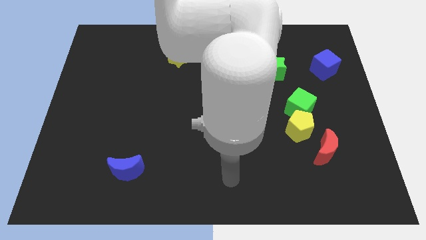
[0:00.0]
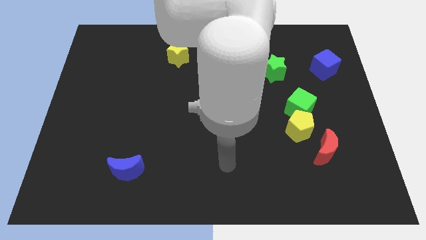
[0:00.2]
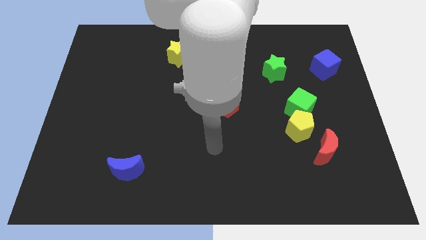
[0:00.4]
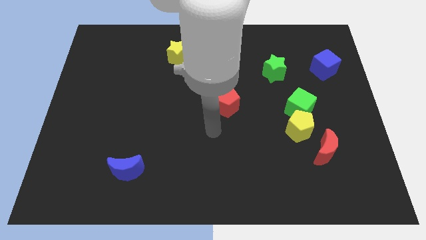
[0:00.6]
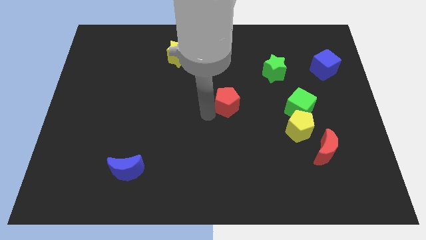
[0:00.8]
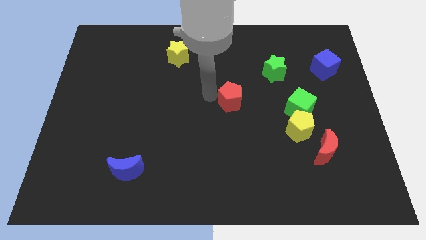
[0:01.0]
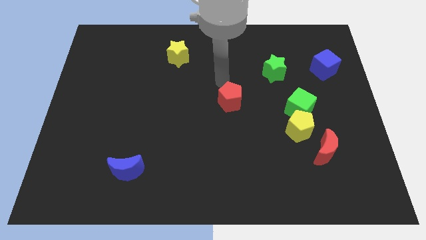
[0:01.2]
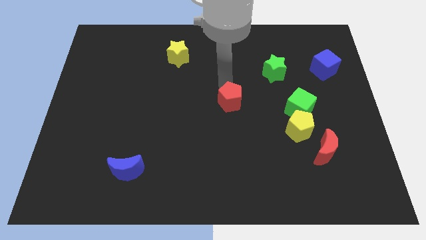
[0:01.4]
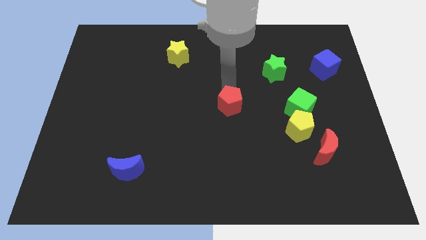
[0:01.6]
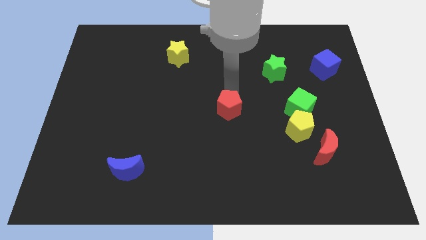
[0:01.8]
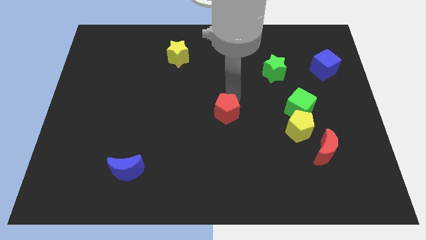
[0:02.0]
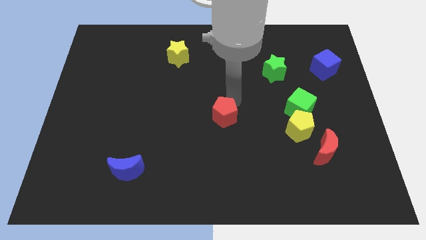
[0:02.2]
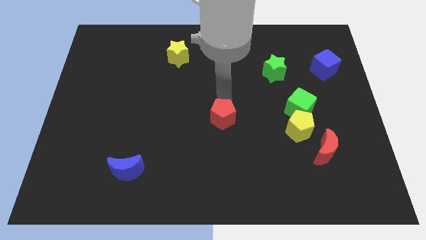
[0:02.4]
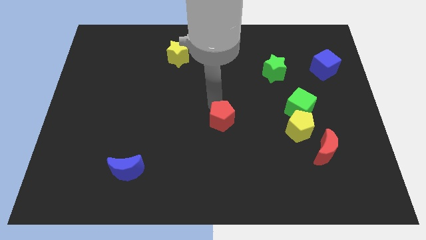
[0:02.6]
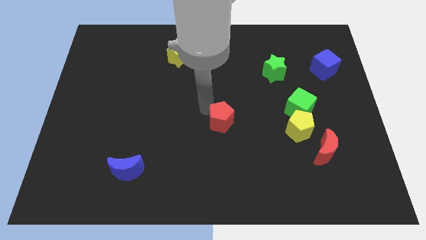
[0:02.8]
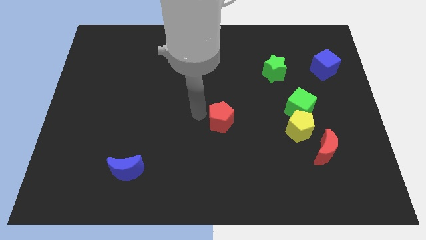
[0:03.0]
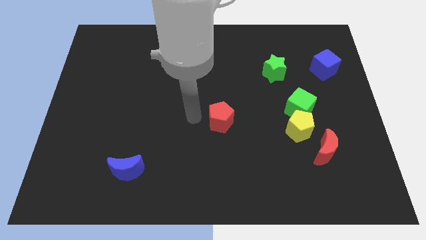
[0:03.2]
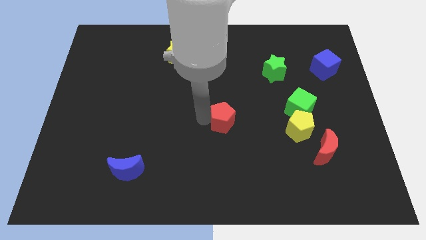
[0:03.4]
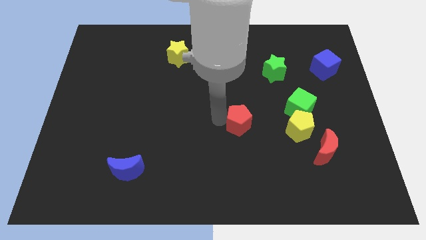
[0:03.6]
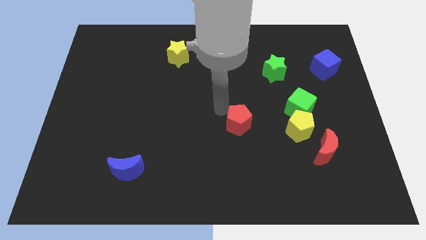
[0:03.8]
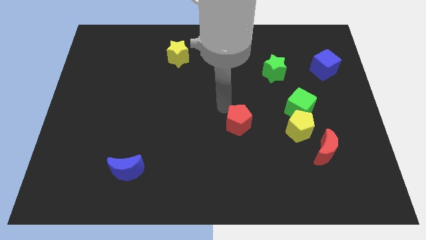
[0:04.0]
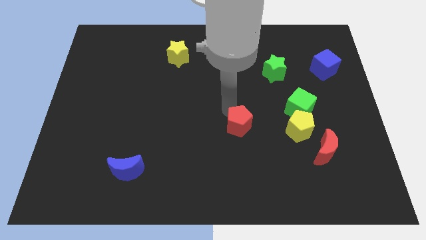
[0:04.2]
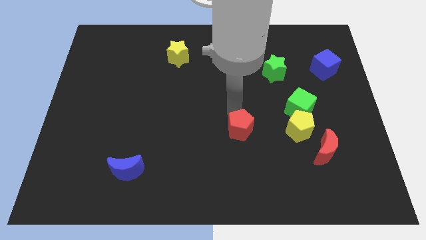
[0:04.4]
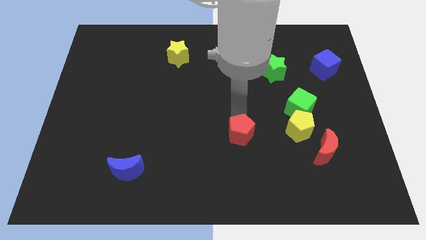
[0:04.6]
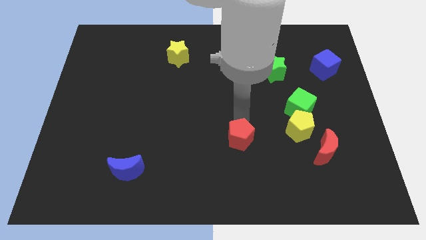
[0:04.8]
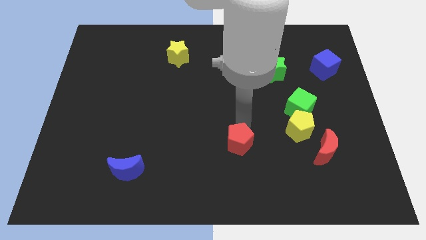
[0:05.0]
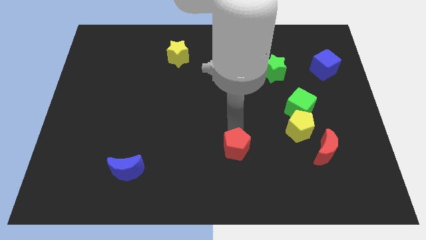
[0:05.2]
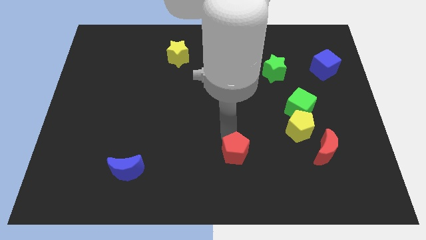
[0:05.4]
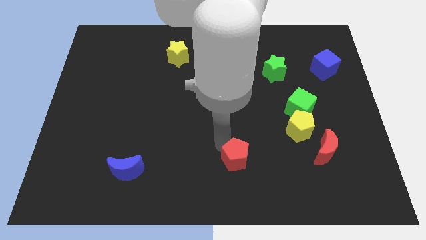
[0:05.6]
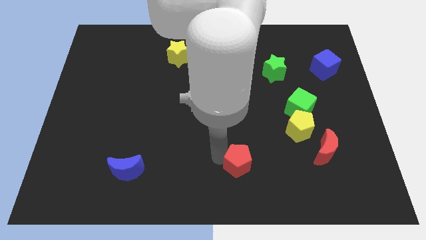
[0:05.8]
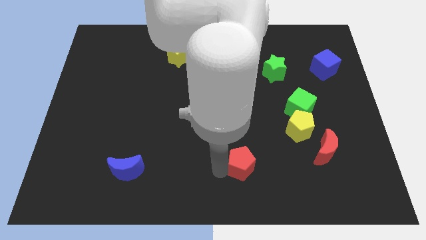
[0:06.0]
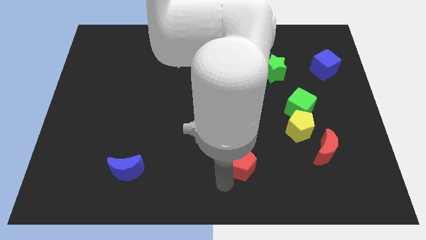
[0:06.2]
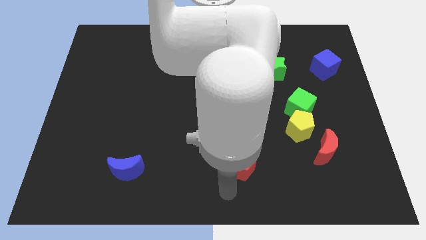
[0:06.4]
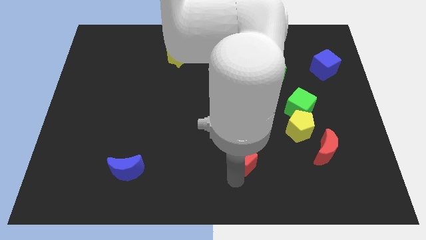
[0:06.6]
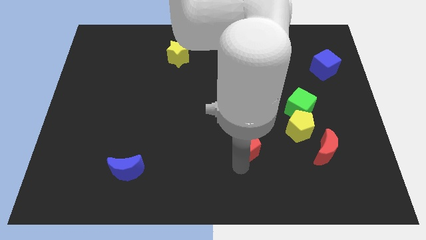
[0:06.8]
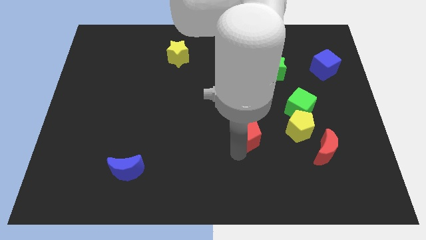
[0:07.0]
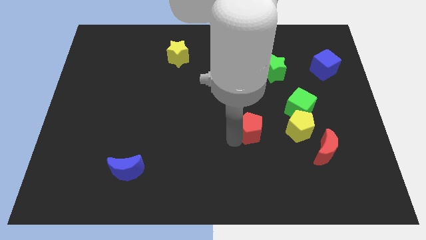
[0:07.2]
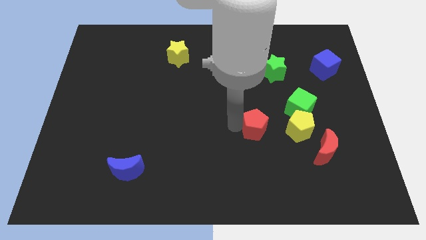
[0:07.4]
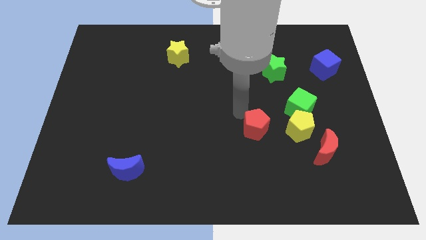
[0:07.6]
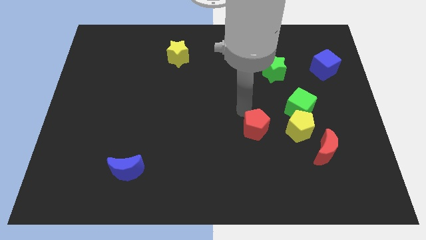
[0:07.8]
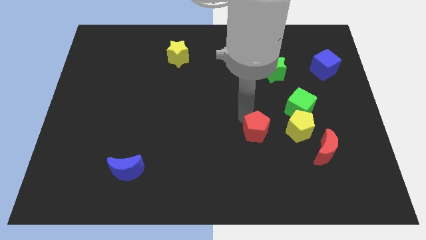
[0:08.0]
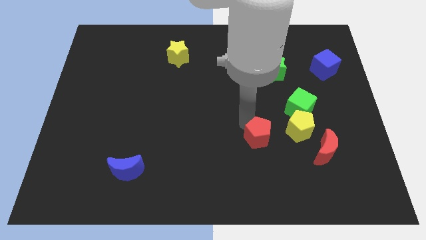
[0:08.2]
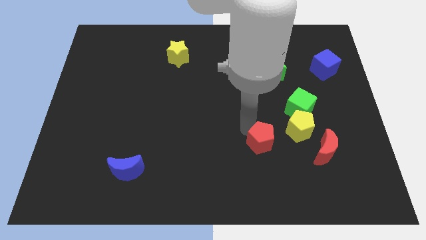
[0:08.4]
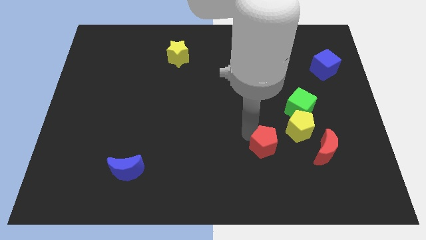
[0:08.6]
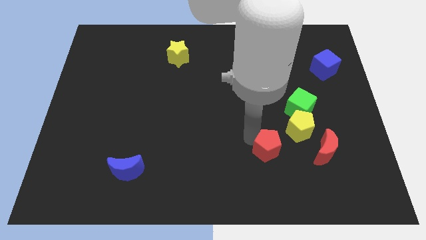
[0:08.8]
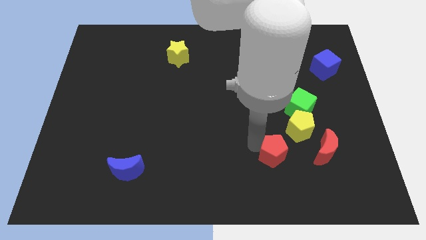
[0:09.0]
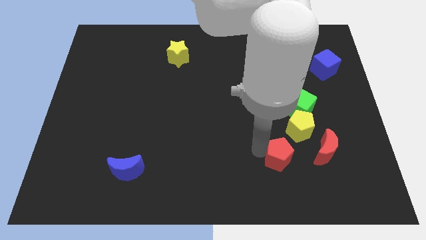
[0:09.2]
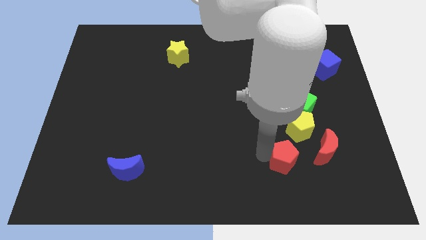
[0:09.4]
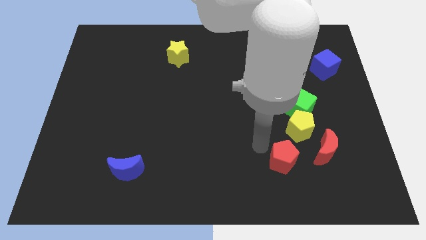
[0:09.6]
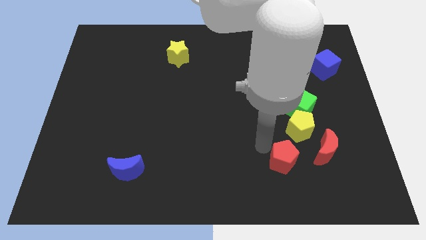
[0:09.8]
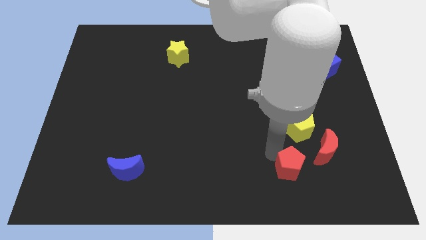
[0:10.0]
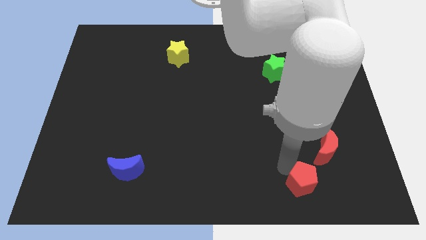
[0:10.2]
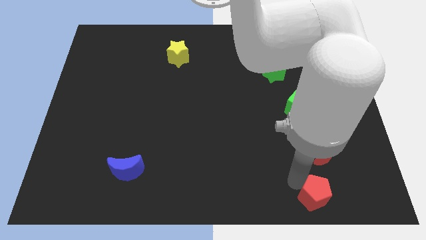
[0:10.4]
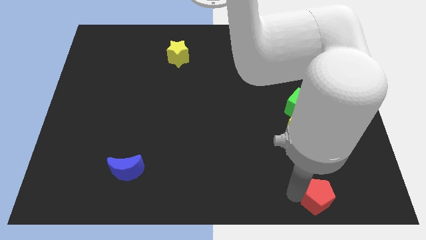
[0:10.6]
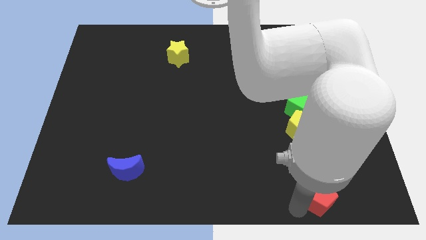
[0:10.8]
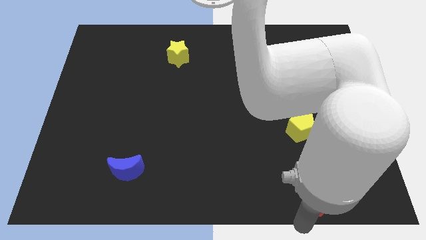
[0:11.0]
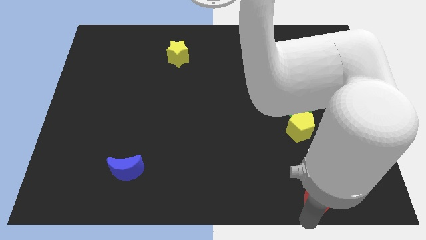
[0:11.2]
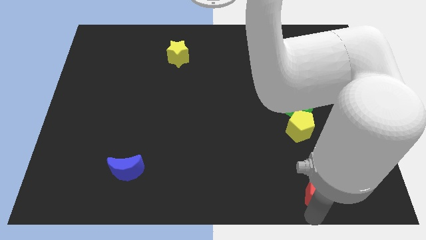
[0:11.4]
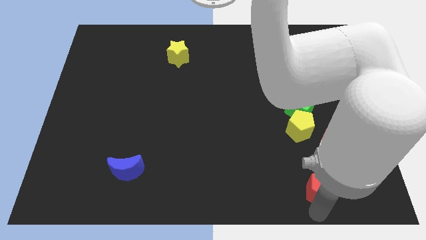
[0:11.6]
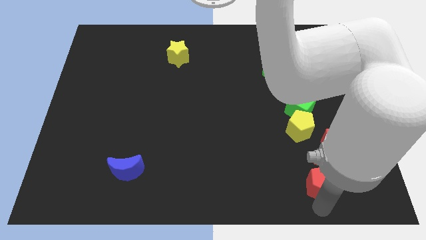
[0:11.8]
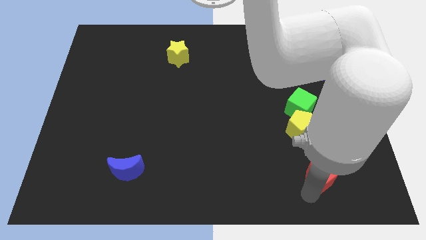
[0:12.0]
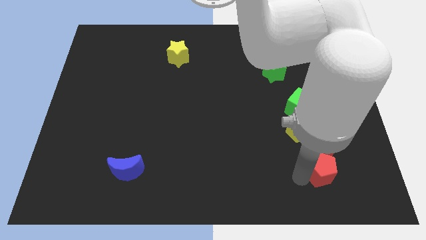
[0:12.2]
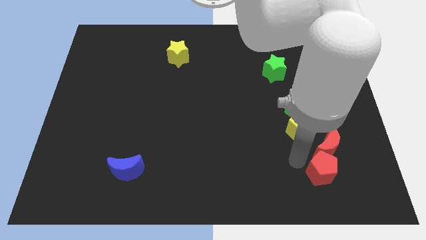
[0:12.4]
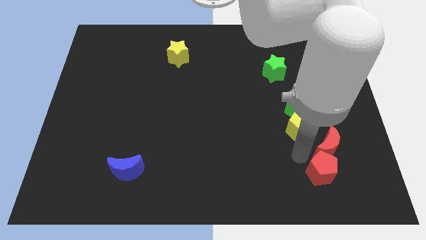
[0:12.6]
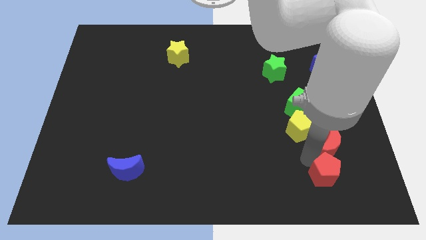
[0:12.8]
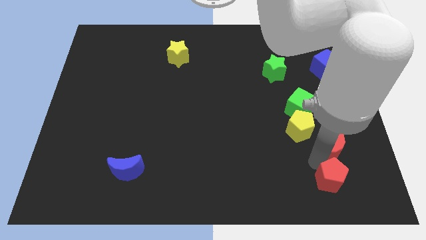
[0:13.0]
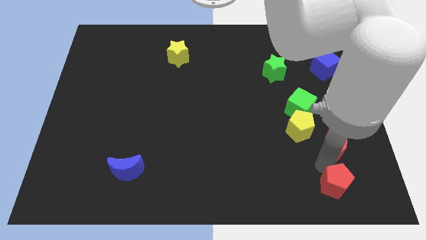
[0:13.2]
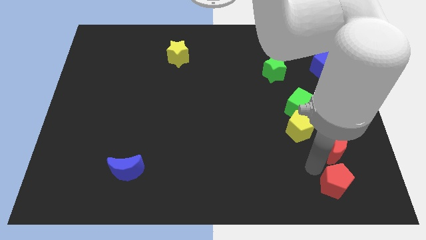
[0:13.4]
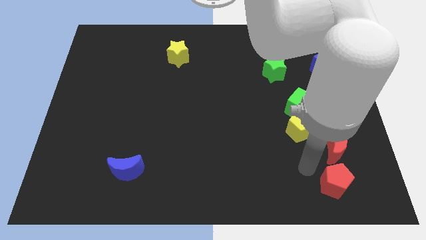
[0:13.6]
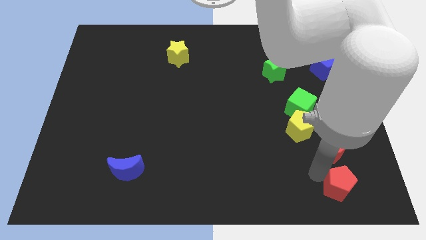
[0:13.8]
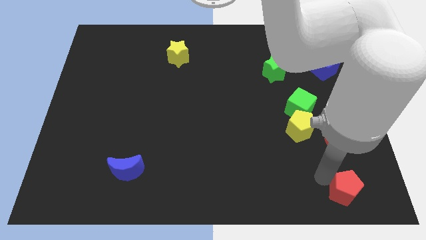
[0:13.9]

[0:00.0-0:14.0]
slide the red pentagon to the bottom right
